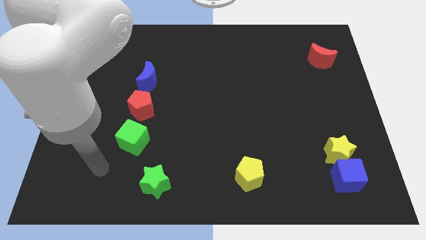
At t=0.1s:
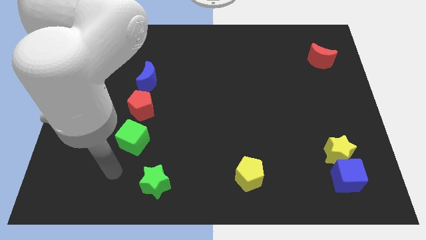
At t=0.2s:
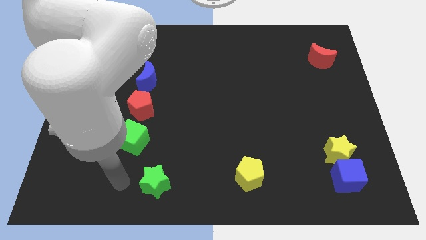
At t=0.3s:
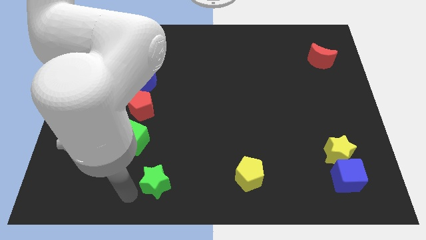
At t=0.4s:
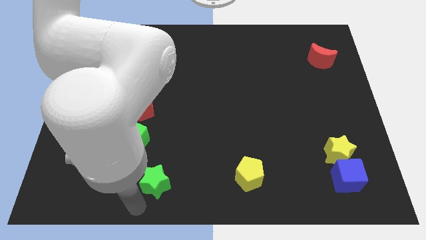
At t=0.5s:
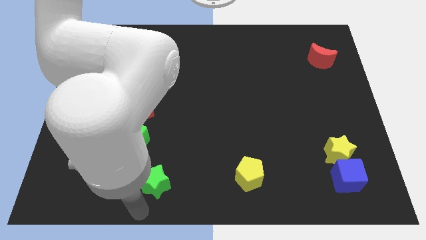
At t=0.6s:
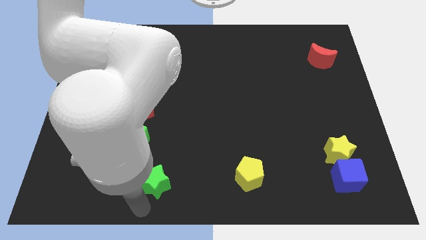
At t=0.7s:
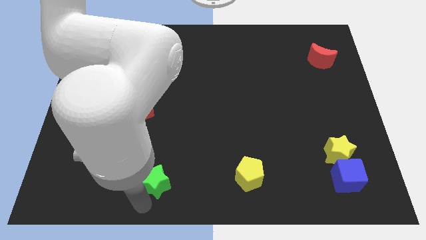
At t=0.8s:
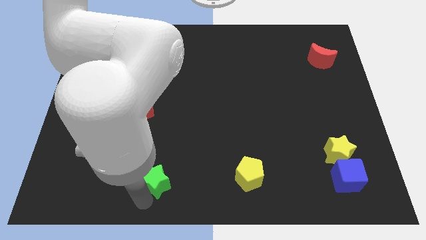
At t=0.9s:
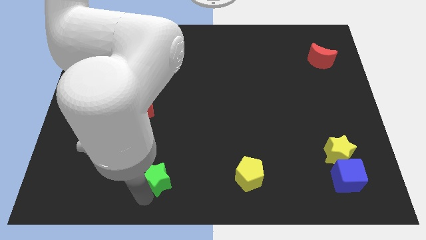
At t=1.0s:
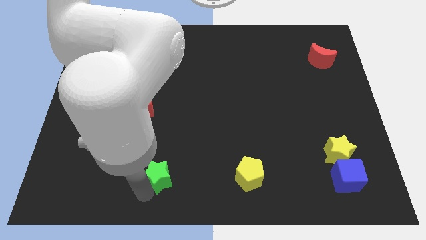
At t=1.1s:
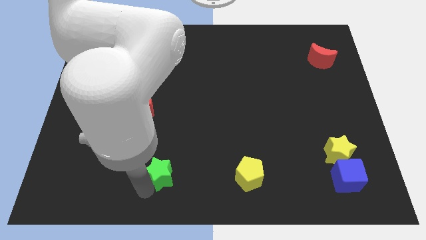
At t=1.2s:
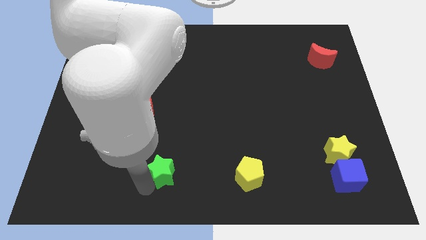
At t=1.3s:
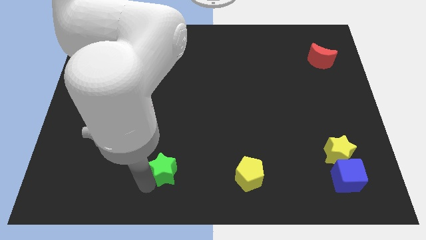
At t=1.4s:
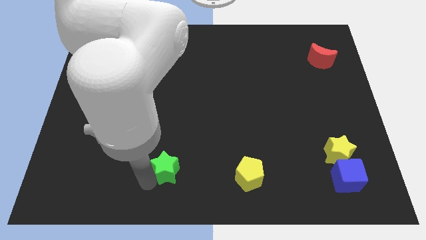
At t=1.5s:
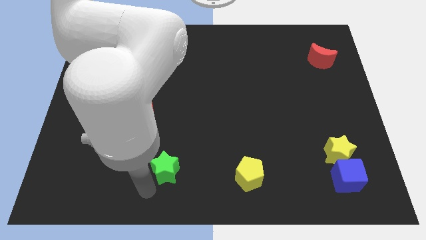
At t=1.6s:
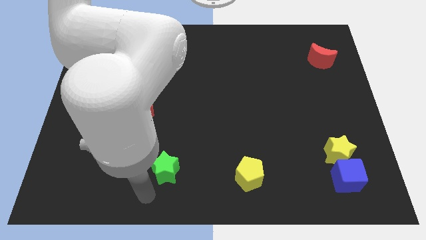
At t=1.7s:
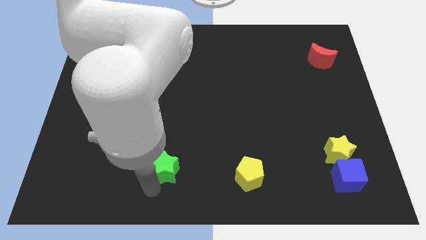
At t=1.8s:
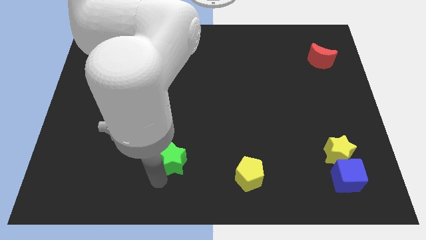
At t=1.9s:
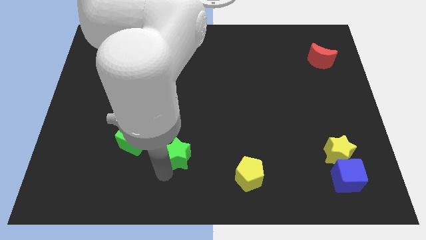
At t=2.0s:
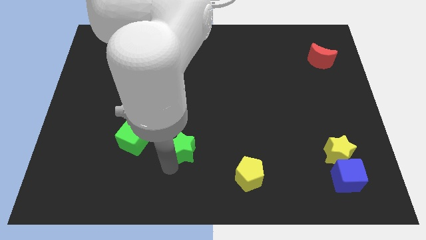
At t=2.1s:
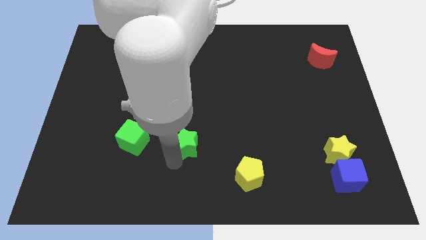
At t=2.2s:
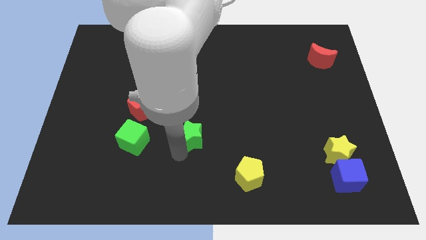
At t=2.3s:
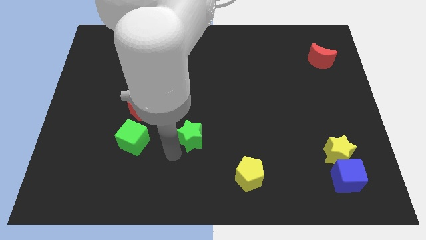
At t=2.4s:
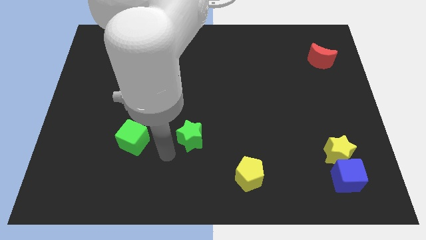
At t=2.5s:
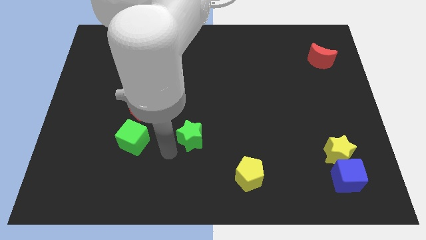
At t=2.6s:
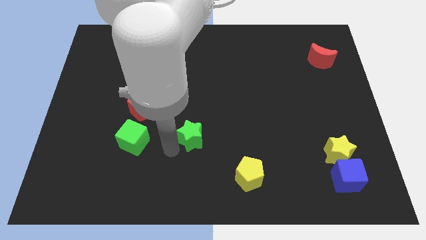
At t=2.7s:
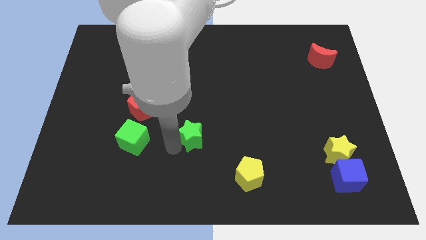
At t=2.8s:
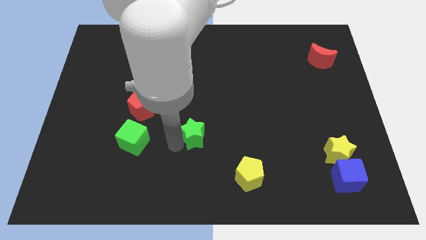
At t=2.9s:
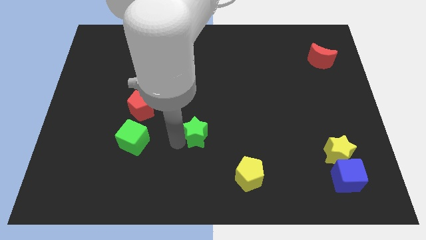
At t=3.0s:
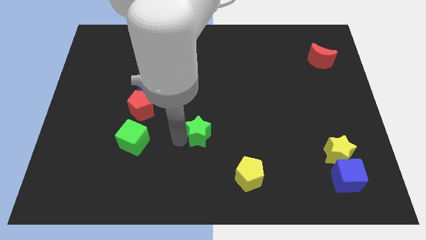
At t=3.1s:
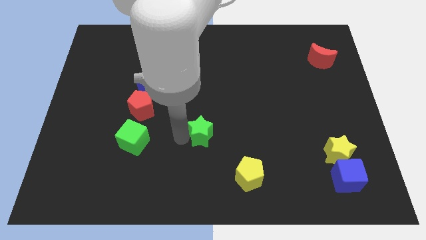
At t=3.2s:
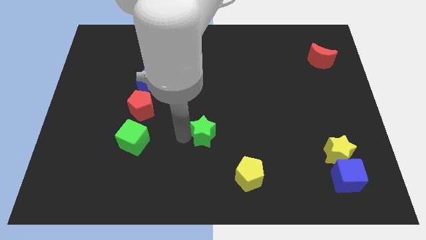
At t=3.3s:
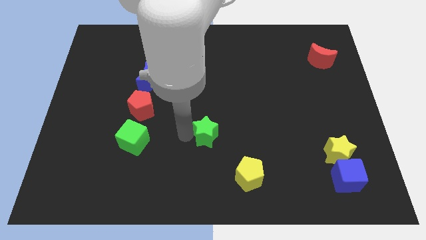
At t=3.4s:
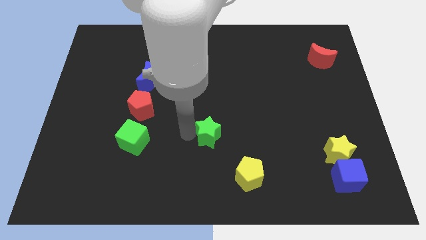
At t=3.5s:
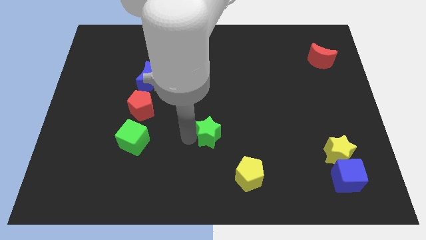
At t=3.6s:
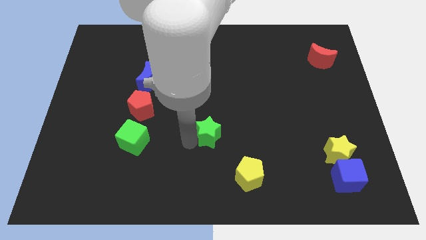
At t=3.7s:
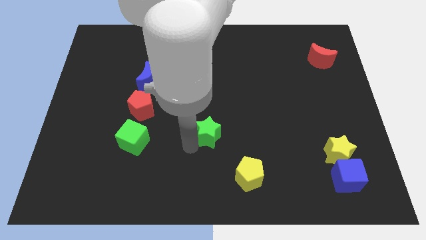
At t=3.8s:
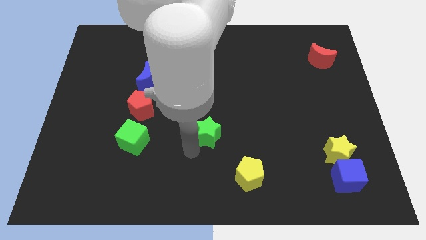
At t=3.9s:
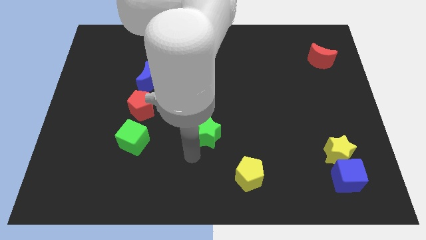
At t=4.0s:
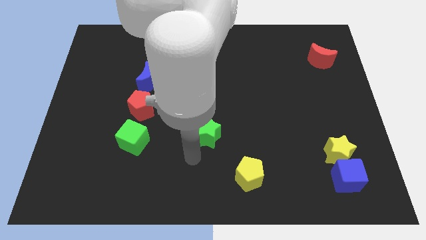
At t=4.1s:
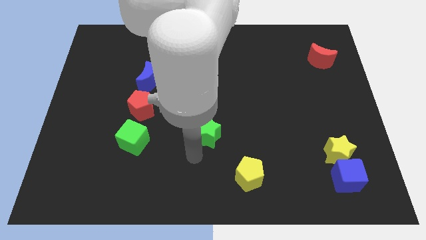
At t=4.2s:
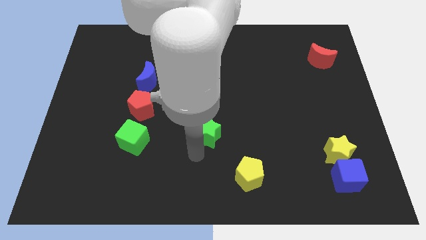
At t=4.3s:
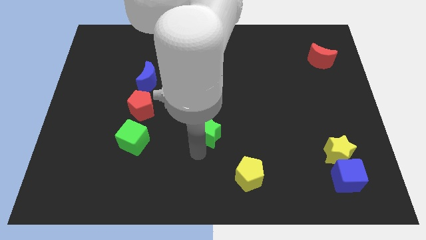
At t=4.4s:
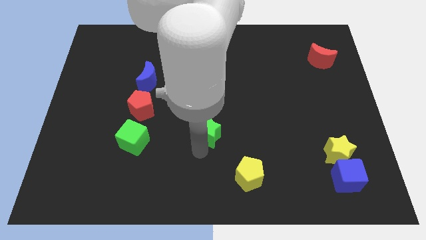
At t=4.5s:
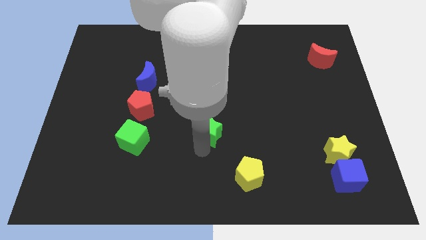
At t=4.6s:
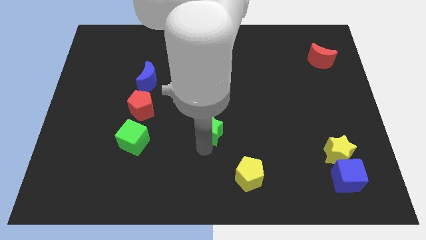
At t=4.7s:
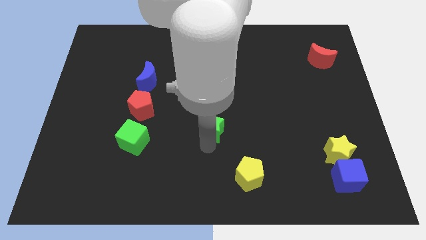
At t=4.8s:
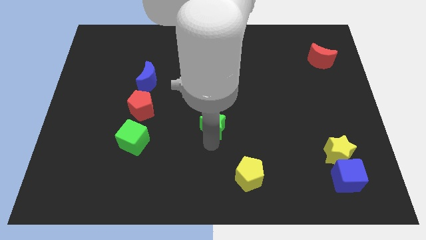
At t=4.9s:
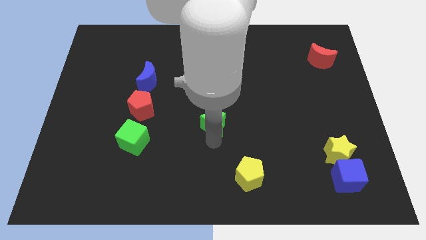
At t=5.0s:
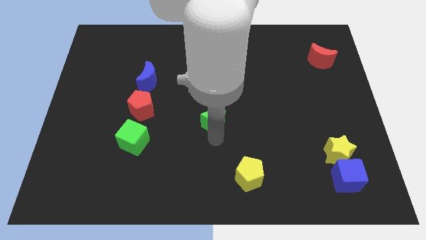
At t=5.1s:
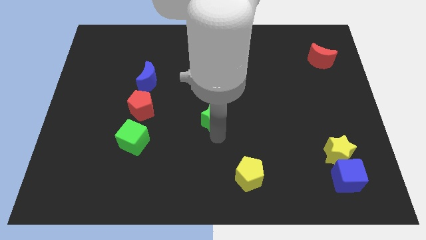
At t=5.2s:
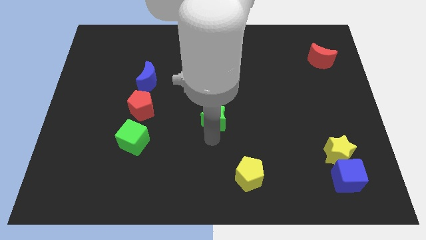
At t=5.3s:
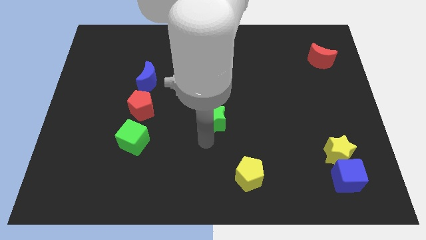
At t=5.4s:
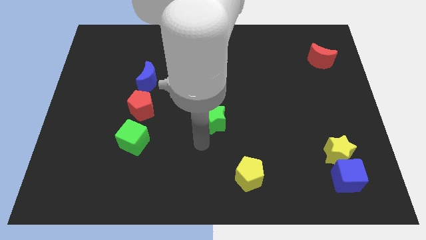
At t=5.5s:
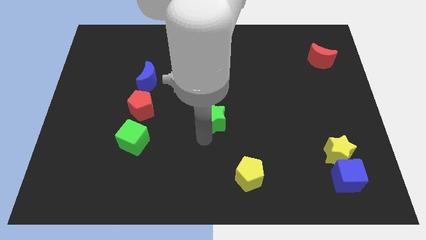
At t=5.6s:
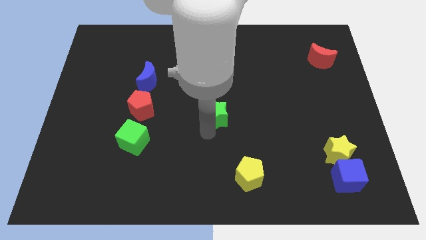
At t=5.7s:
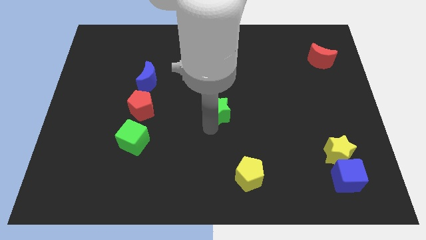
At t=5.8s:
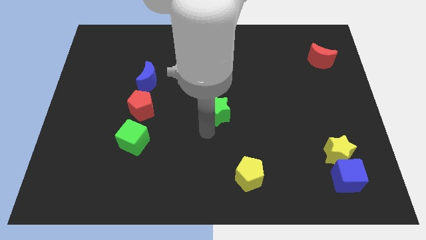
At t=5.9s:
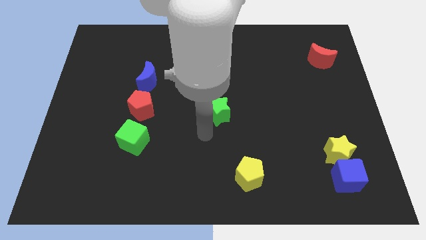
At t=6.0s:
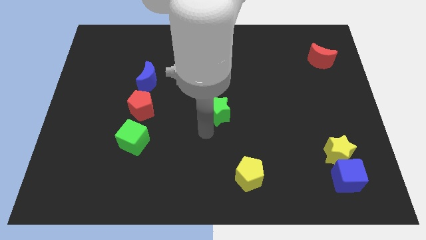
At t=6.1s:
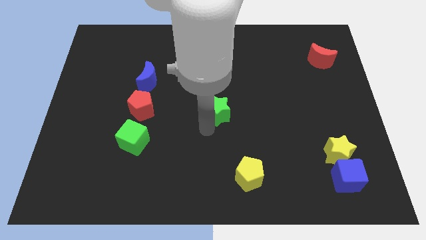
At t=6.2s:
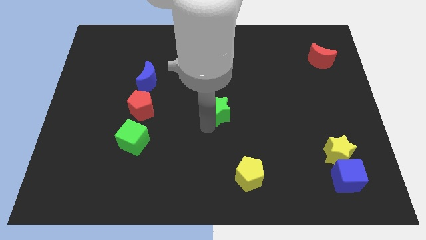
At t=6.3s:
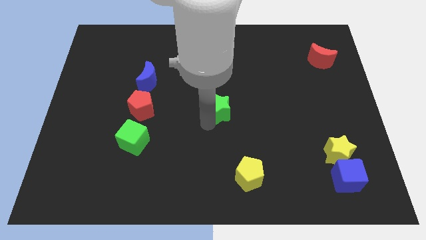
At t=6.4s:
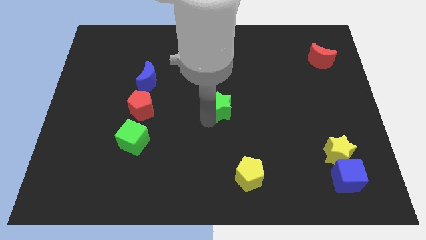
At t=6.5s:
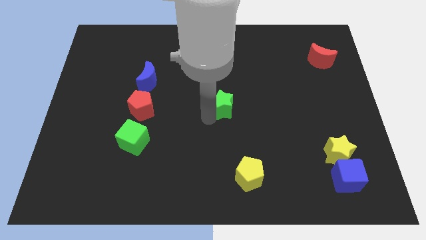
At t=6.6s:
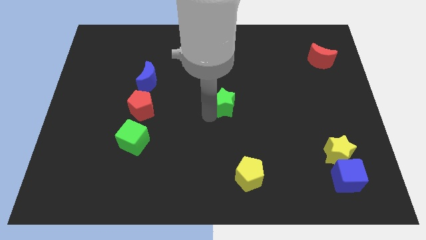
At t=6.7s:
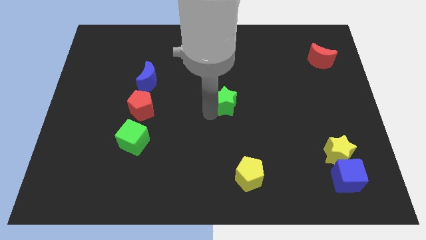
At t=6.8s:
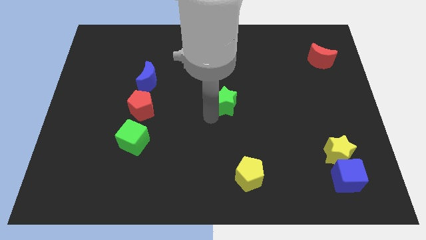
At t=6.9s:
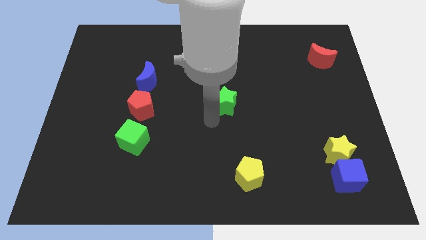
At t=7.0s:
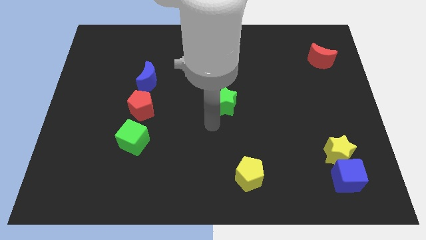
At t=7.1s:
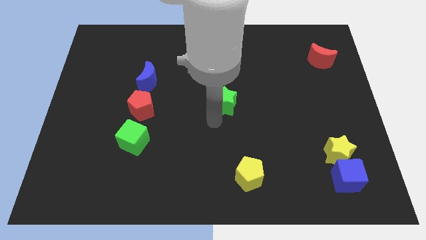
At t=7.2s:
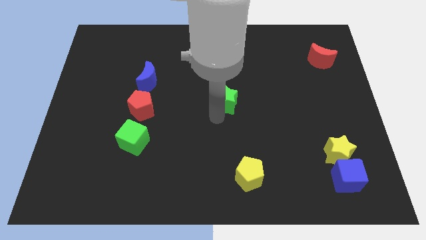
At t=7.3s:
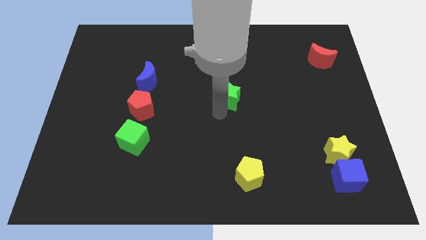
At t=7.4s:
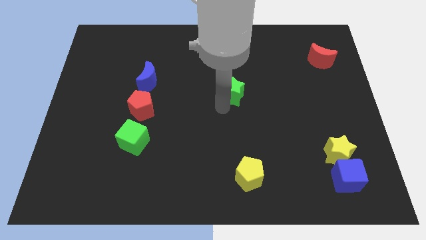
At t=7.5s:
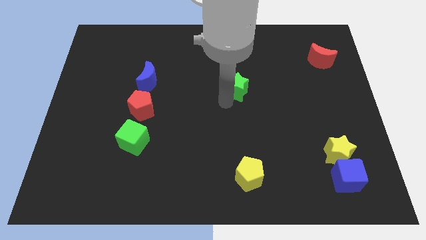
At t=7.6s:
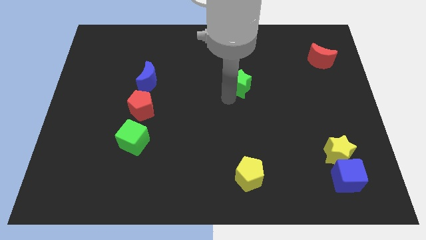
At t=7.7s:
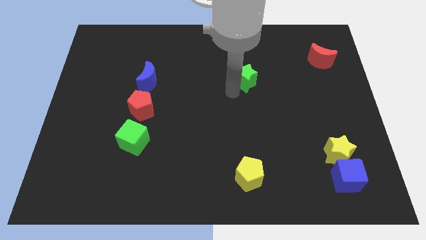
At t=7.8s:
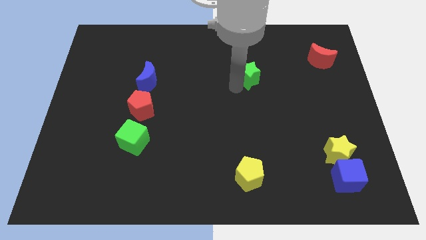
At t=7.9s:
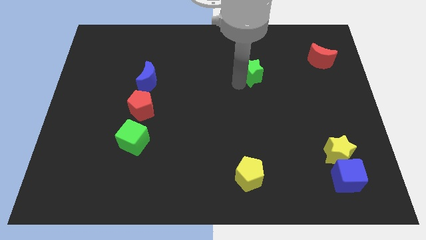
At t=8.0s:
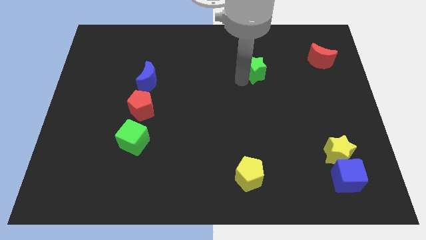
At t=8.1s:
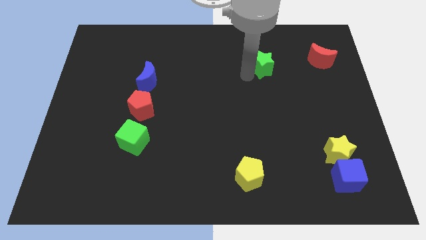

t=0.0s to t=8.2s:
put the green star to the left side of the red moon
